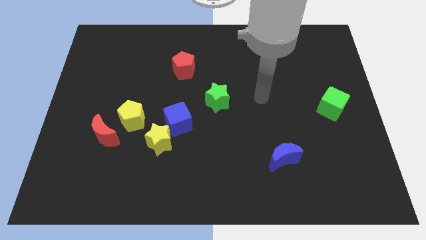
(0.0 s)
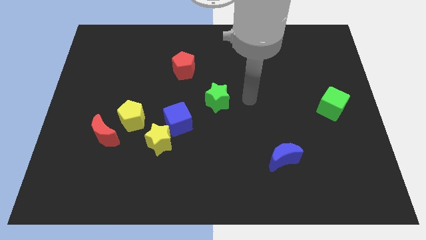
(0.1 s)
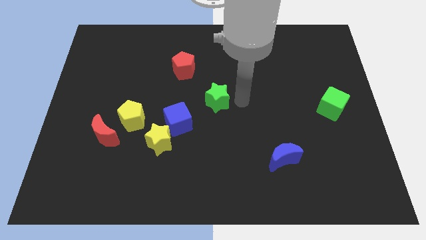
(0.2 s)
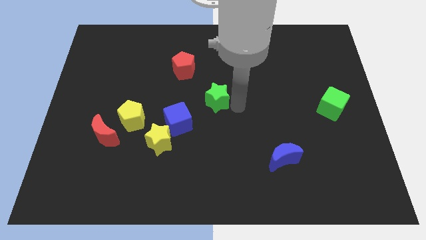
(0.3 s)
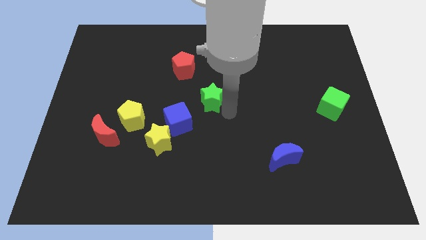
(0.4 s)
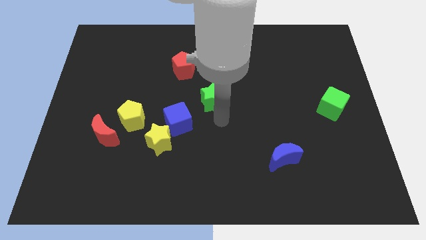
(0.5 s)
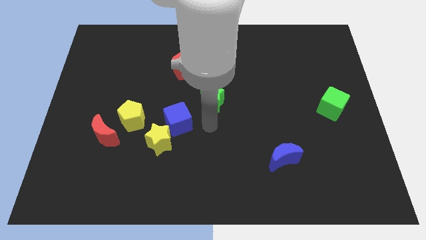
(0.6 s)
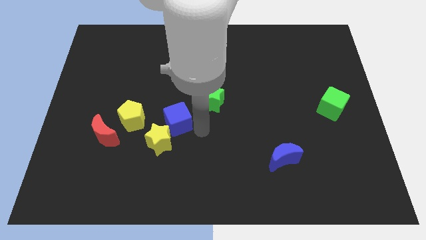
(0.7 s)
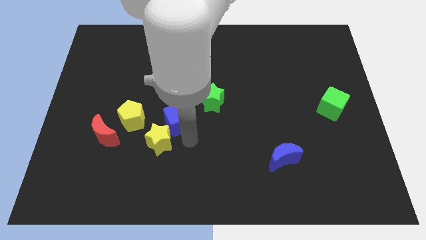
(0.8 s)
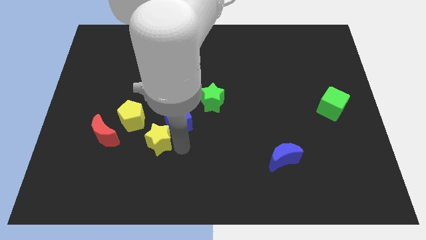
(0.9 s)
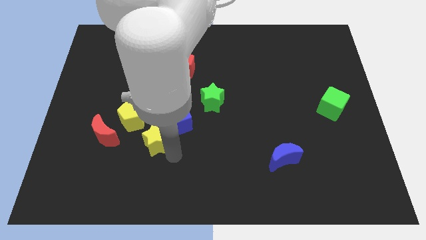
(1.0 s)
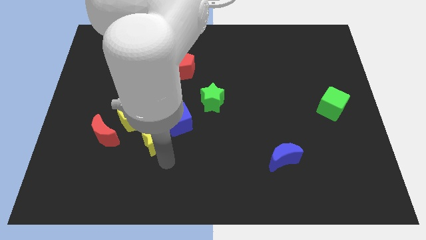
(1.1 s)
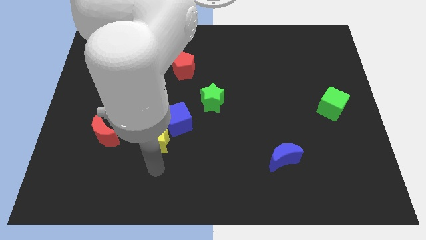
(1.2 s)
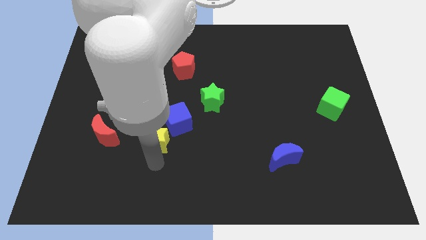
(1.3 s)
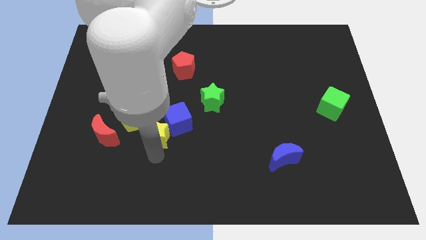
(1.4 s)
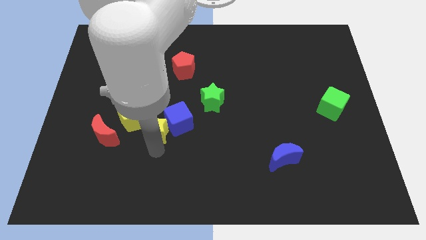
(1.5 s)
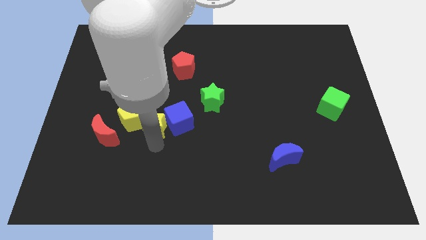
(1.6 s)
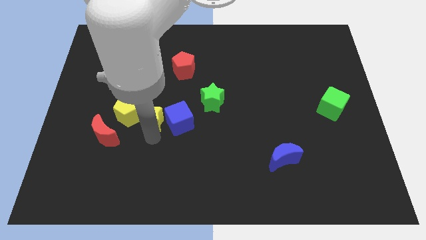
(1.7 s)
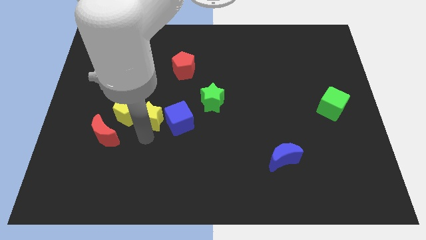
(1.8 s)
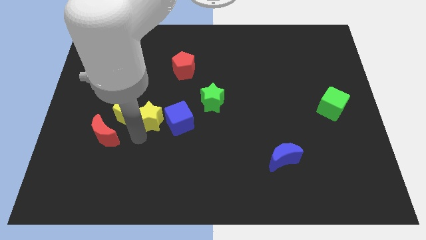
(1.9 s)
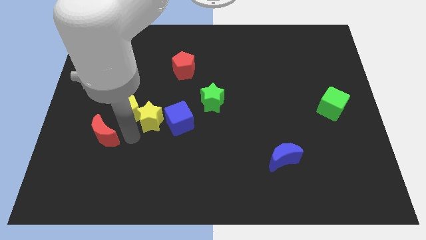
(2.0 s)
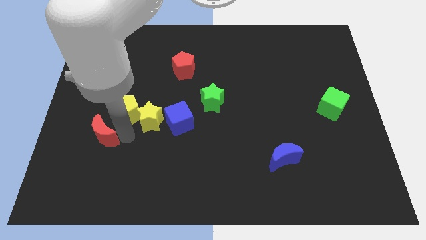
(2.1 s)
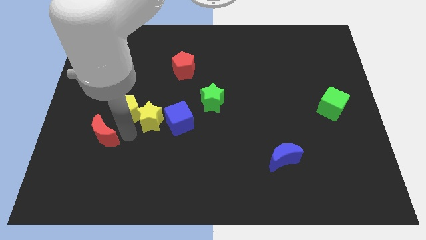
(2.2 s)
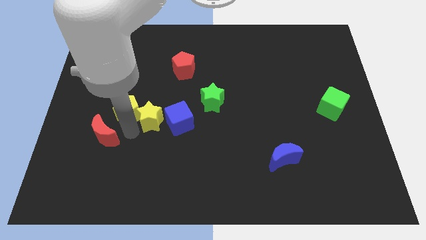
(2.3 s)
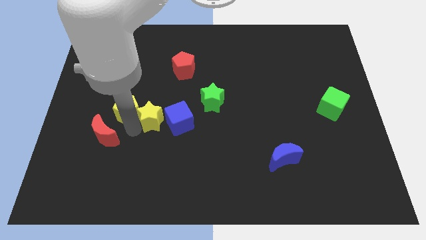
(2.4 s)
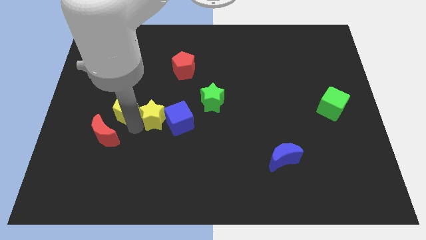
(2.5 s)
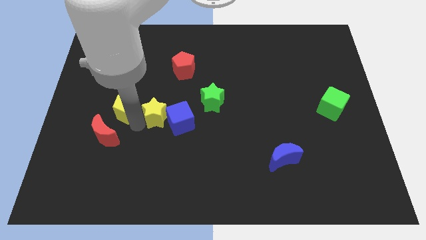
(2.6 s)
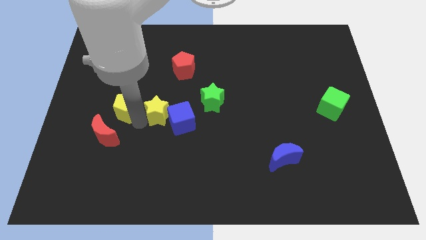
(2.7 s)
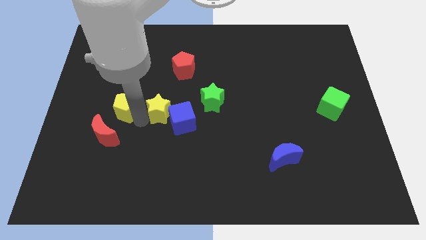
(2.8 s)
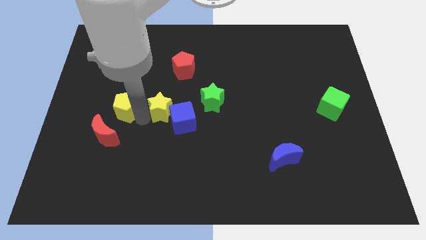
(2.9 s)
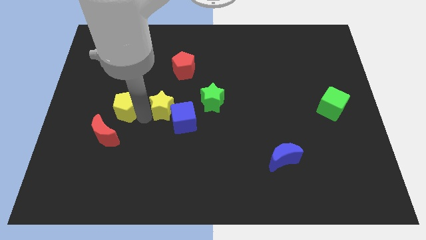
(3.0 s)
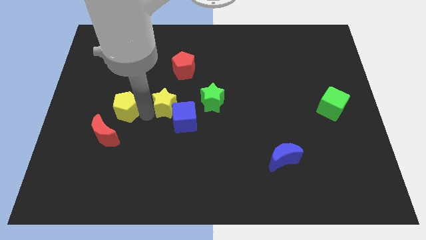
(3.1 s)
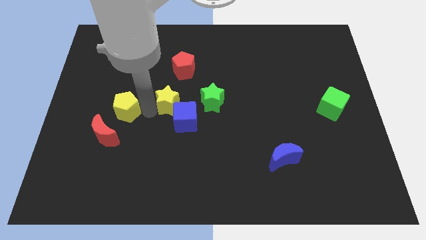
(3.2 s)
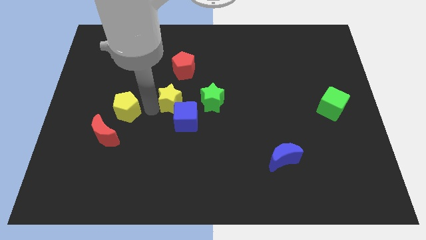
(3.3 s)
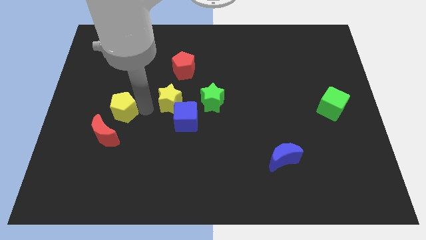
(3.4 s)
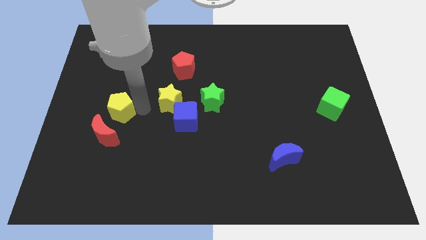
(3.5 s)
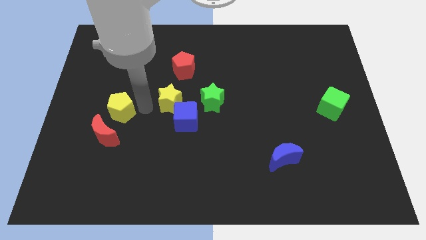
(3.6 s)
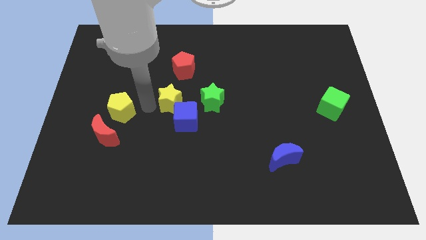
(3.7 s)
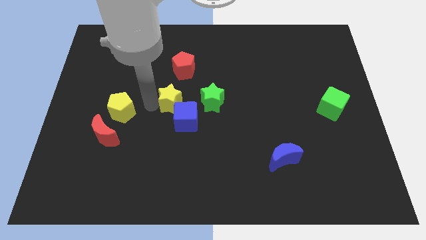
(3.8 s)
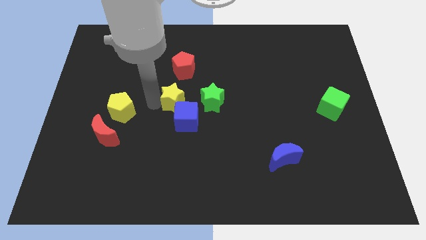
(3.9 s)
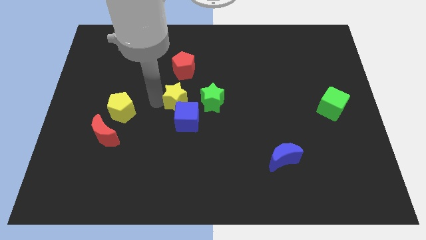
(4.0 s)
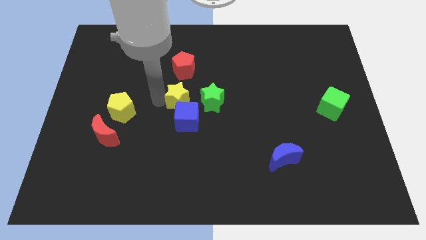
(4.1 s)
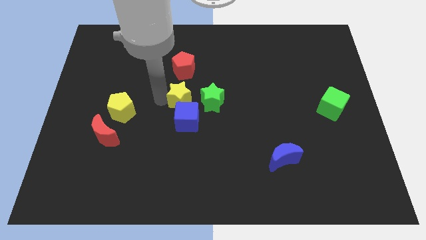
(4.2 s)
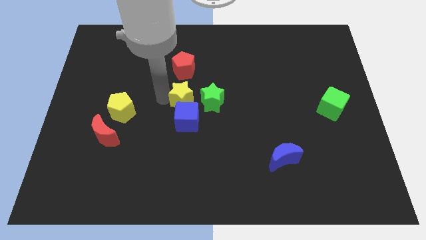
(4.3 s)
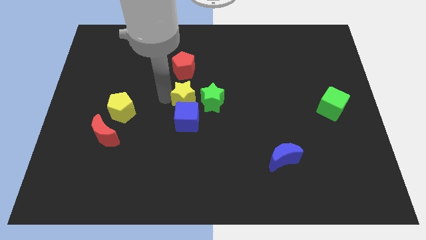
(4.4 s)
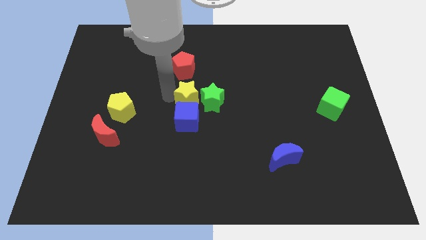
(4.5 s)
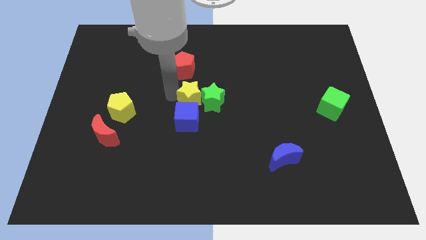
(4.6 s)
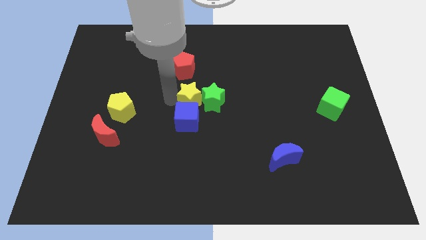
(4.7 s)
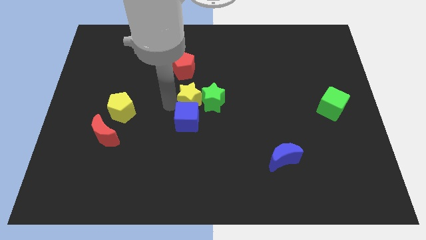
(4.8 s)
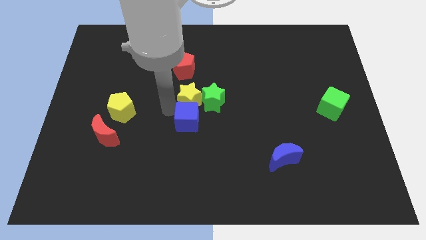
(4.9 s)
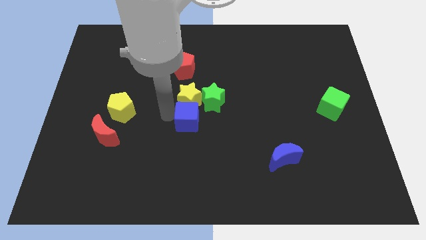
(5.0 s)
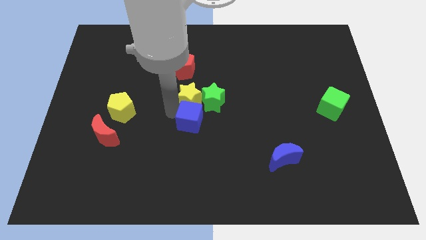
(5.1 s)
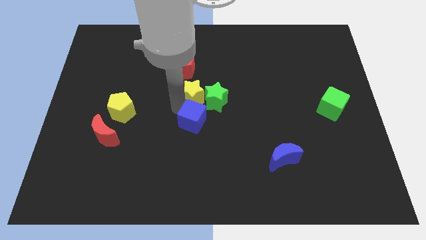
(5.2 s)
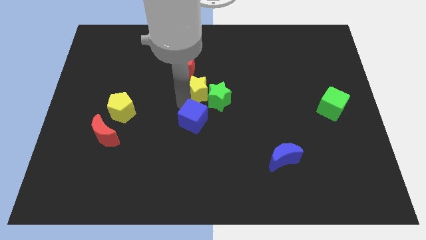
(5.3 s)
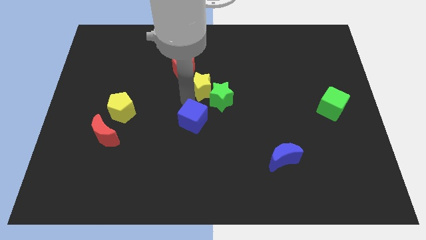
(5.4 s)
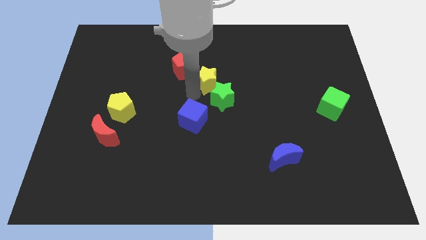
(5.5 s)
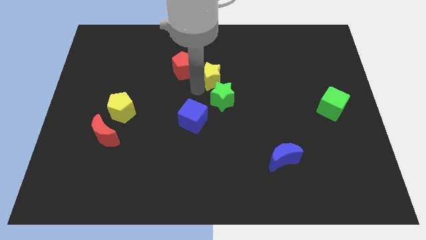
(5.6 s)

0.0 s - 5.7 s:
move the yellow star up and then to the right

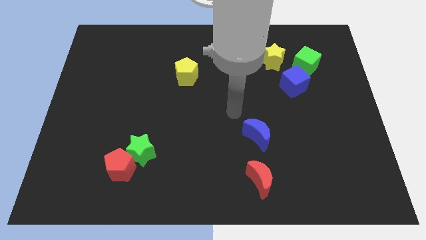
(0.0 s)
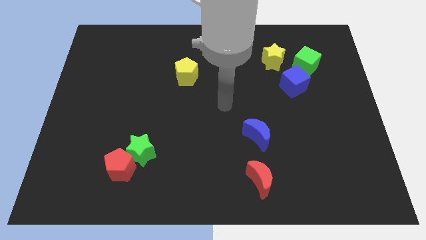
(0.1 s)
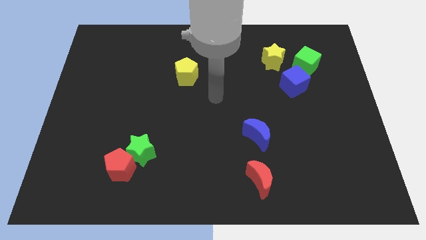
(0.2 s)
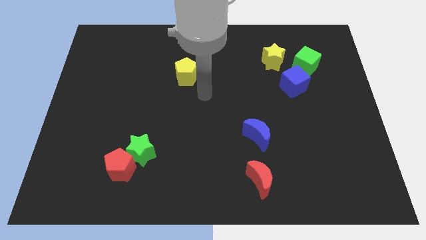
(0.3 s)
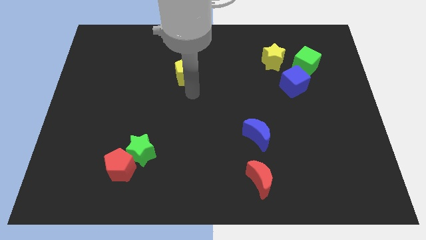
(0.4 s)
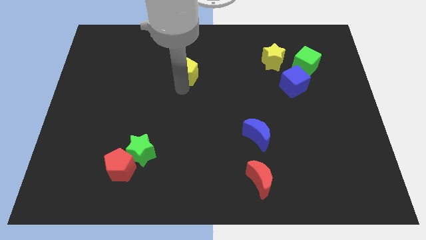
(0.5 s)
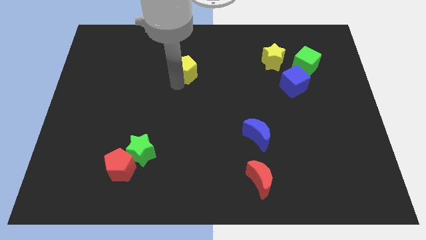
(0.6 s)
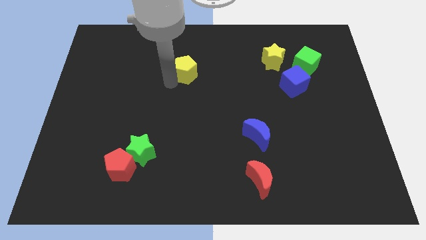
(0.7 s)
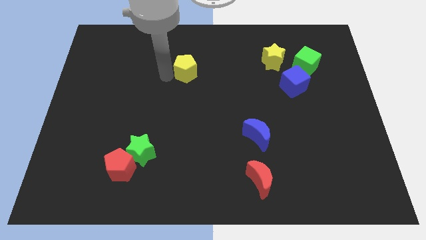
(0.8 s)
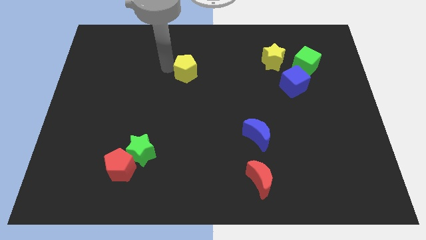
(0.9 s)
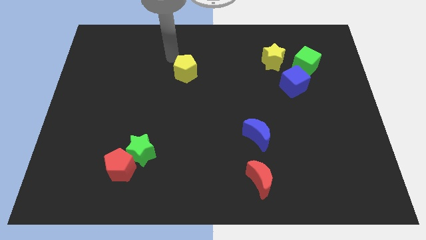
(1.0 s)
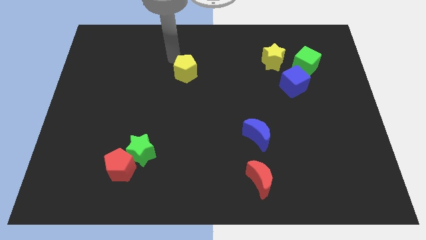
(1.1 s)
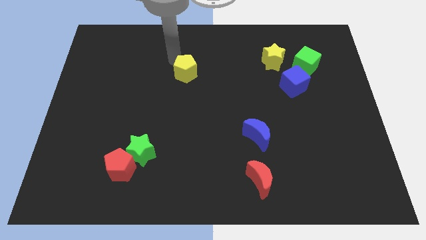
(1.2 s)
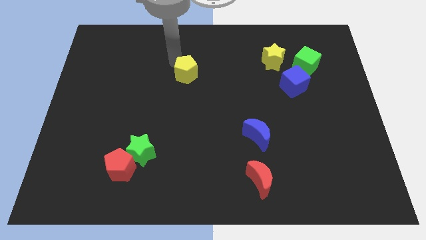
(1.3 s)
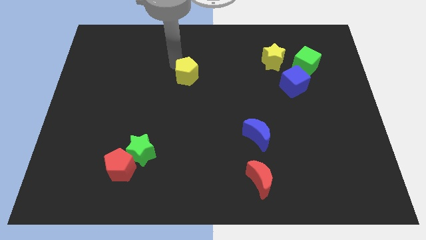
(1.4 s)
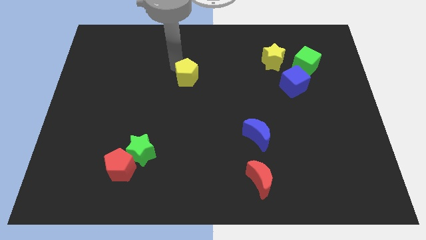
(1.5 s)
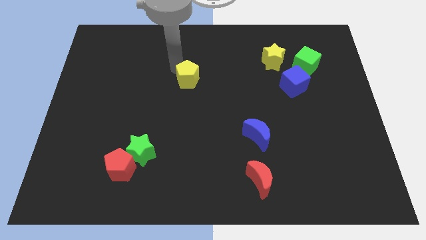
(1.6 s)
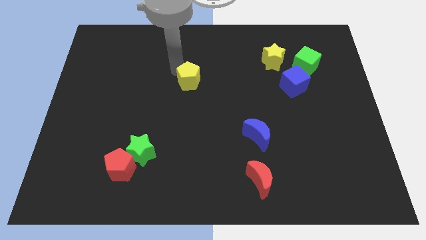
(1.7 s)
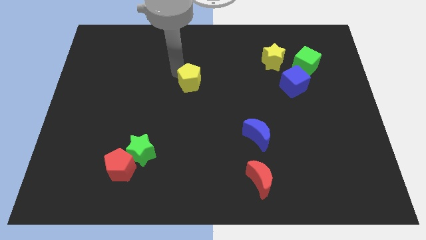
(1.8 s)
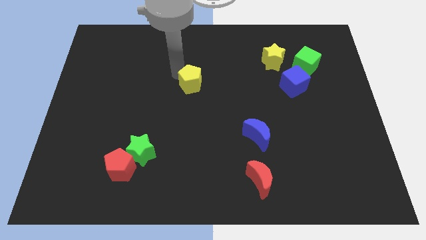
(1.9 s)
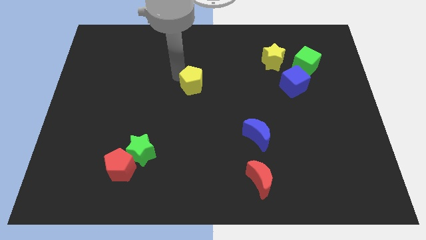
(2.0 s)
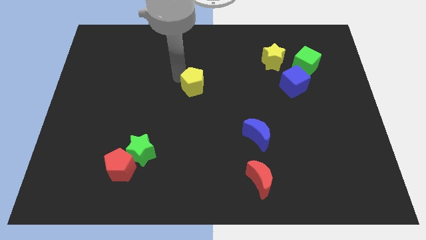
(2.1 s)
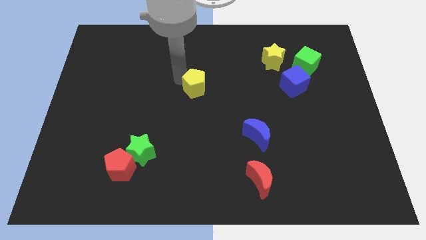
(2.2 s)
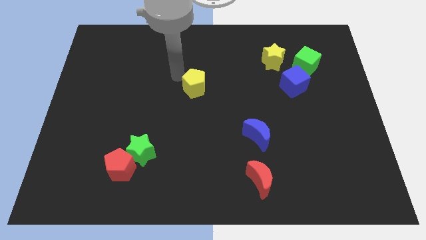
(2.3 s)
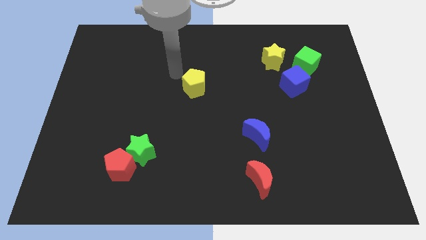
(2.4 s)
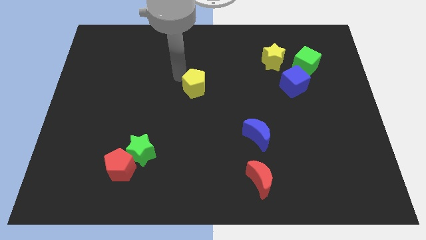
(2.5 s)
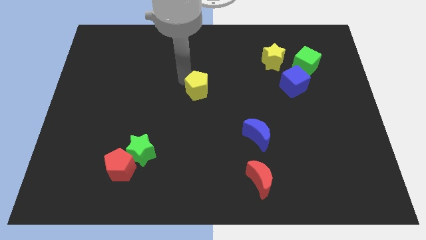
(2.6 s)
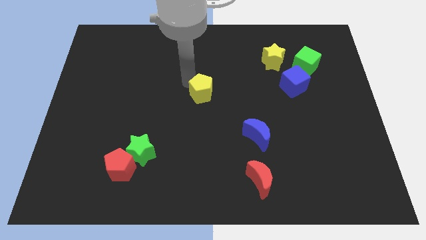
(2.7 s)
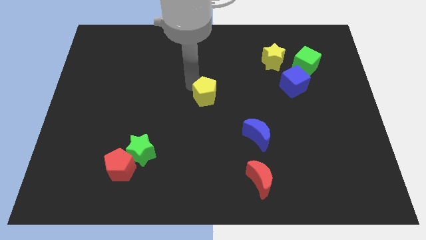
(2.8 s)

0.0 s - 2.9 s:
move the yellow pentagon down and to the right slightly
